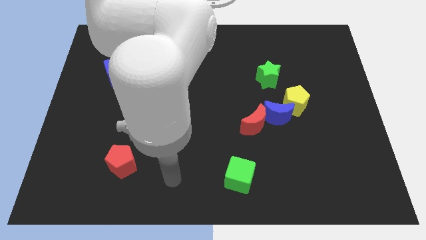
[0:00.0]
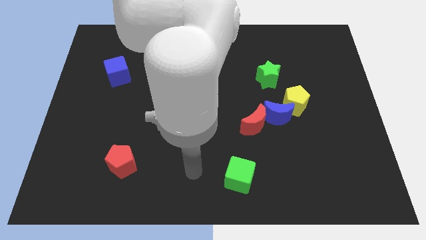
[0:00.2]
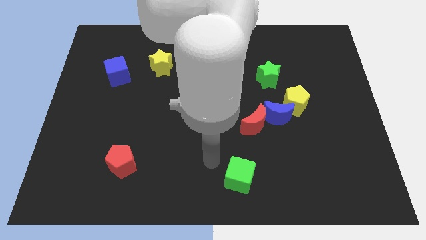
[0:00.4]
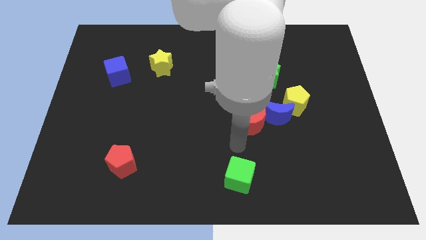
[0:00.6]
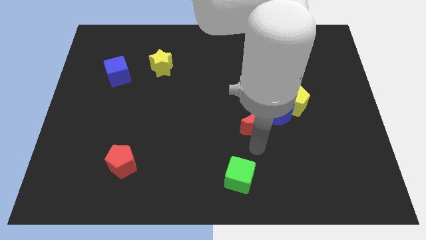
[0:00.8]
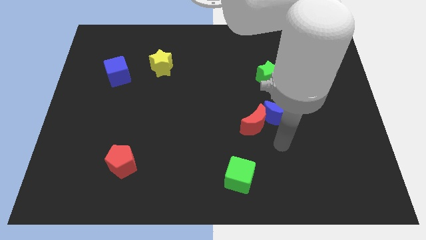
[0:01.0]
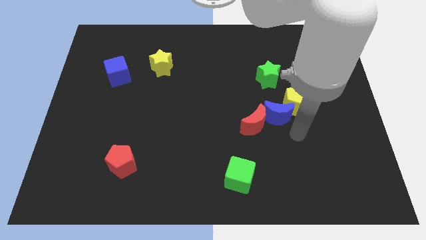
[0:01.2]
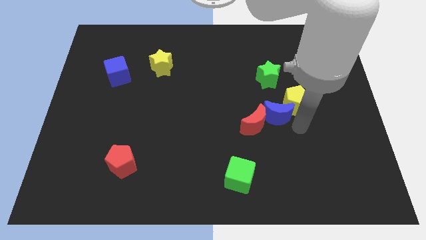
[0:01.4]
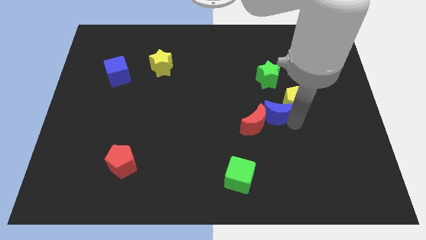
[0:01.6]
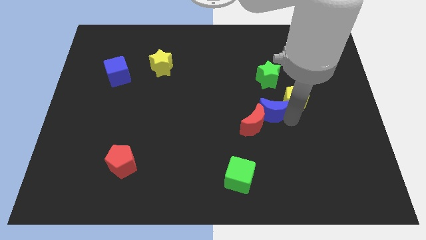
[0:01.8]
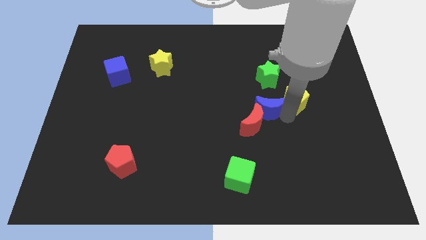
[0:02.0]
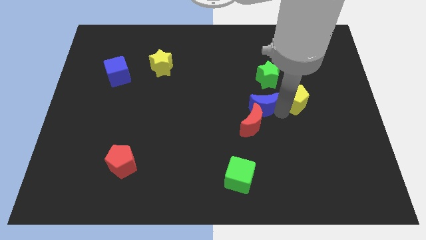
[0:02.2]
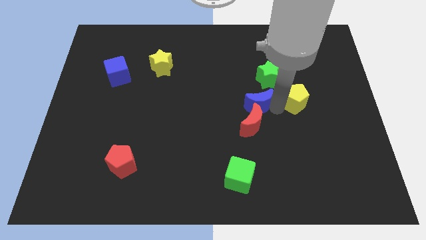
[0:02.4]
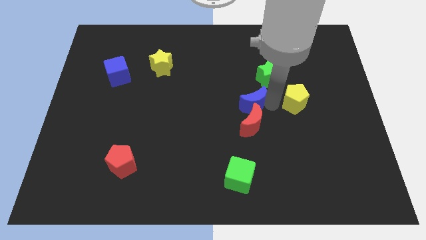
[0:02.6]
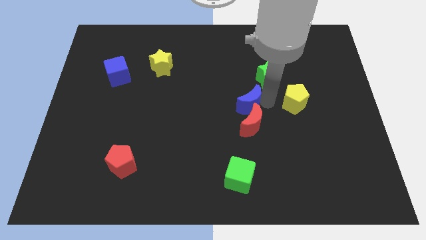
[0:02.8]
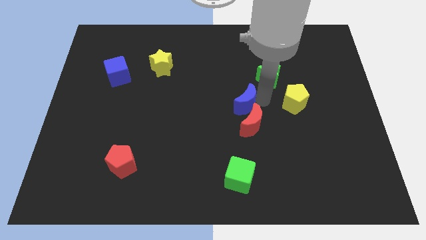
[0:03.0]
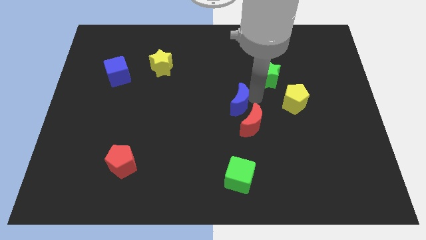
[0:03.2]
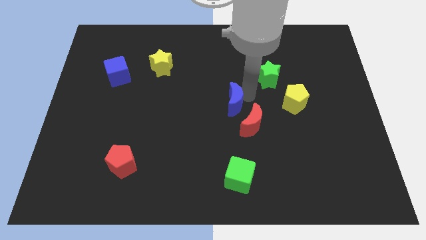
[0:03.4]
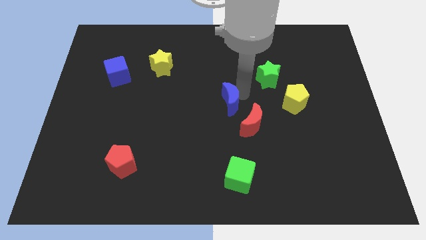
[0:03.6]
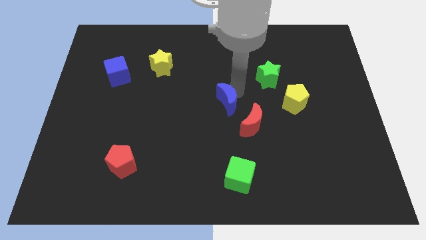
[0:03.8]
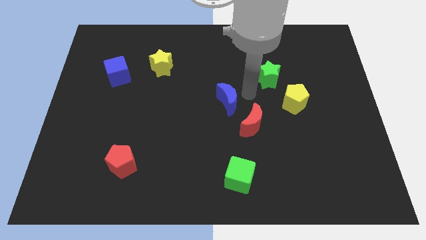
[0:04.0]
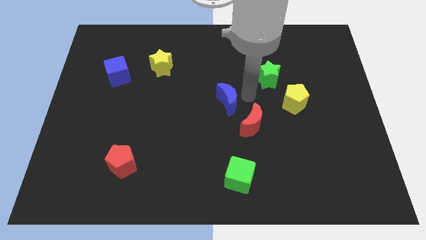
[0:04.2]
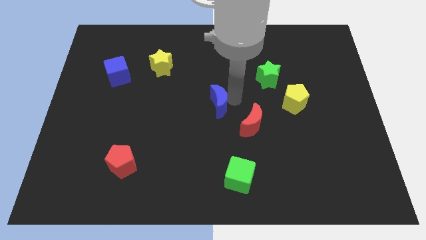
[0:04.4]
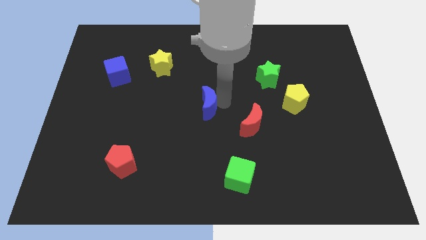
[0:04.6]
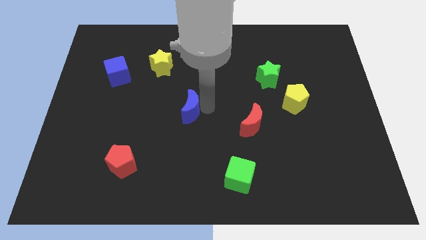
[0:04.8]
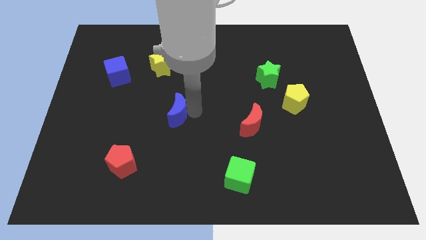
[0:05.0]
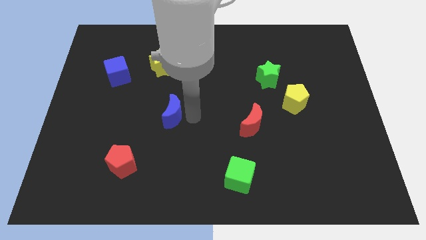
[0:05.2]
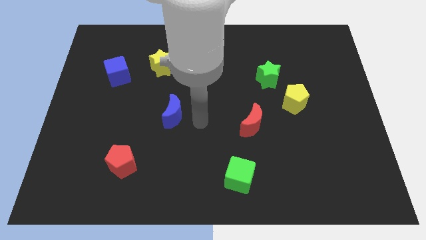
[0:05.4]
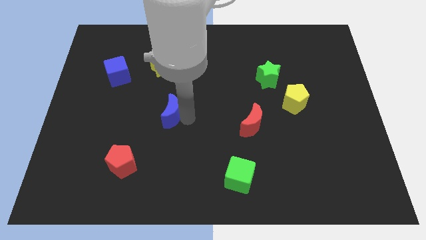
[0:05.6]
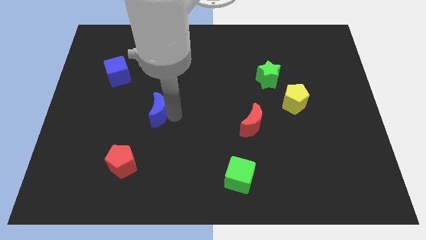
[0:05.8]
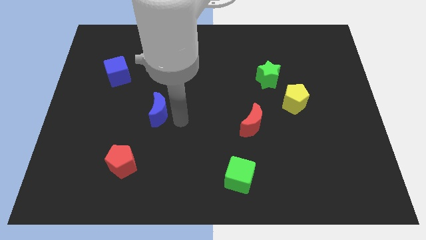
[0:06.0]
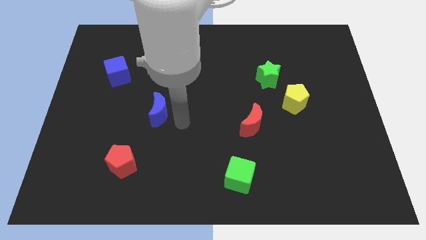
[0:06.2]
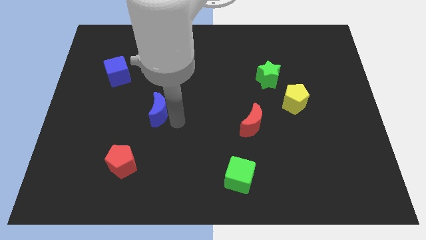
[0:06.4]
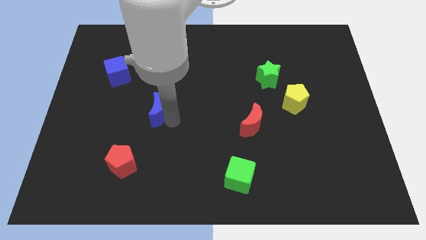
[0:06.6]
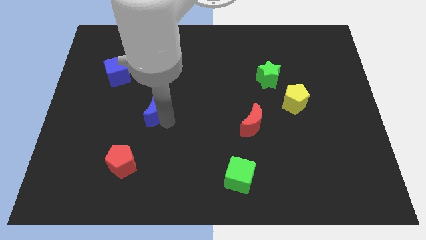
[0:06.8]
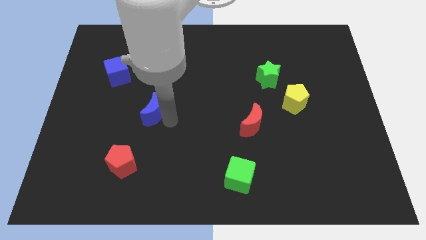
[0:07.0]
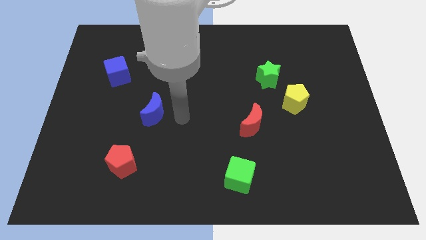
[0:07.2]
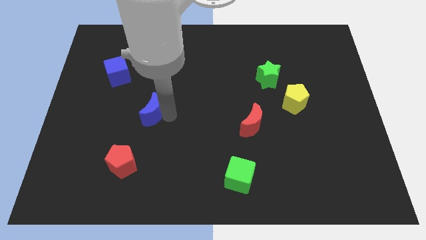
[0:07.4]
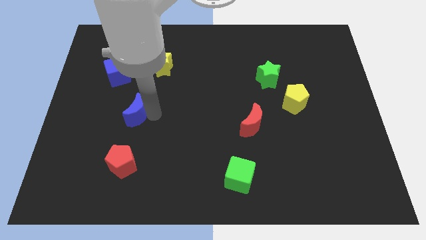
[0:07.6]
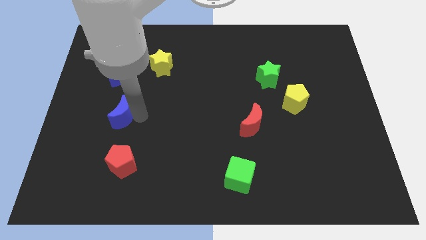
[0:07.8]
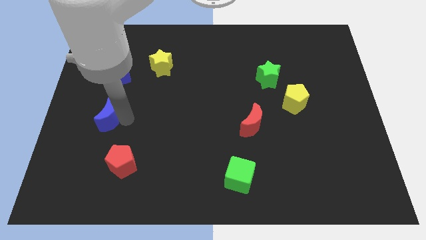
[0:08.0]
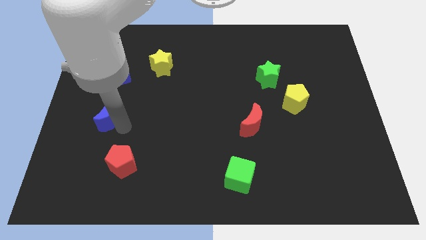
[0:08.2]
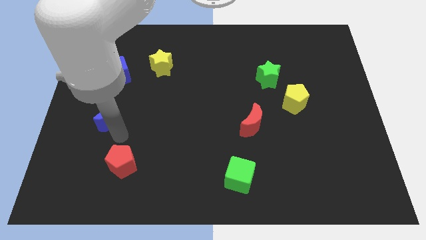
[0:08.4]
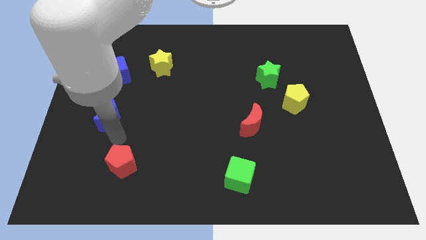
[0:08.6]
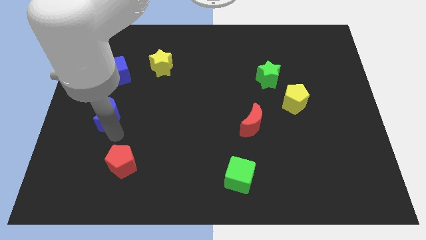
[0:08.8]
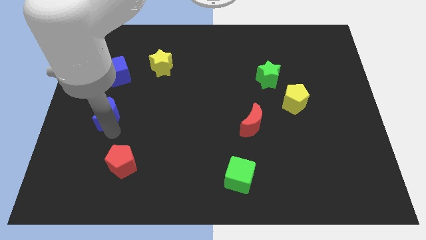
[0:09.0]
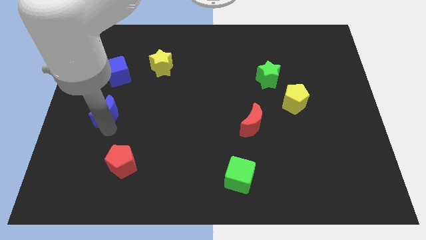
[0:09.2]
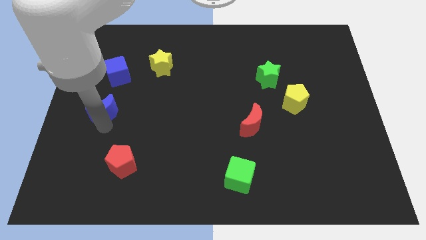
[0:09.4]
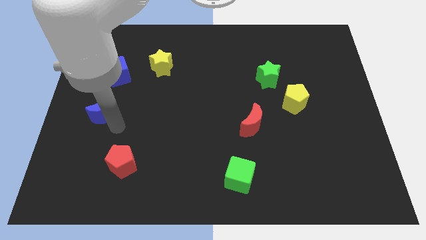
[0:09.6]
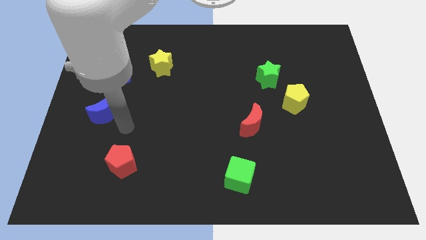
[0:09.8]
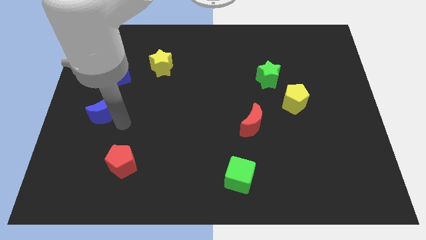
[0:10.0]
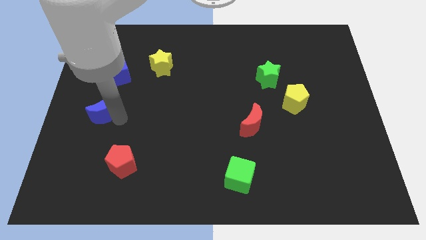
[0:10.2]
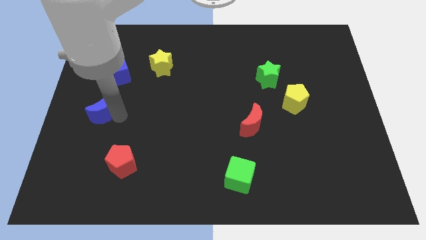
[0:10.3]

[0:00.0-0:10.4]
slide the blue moon to the center left
